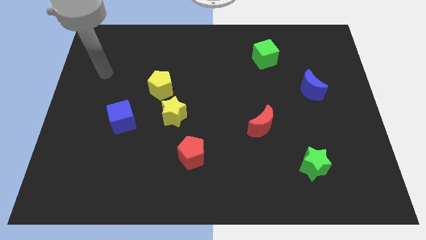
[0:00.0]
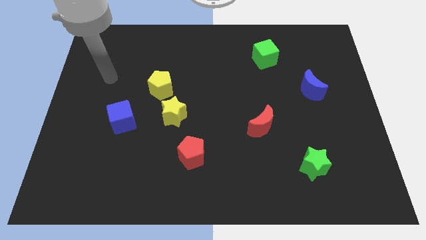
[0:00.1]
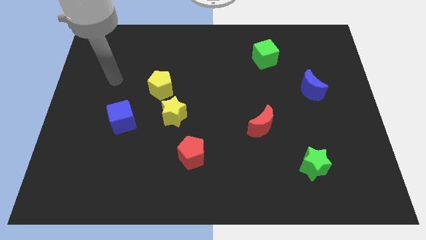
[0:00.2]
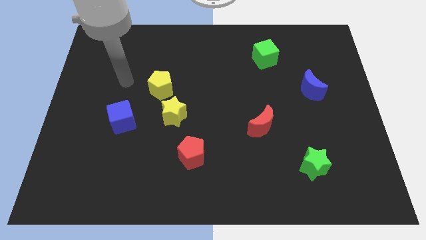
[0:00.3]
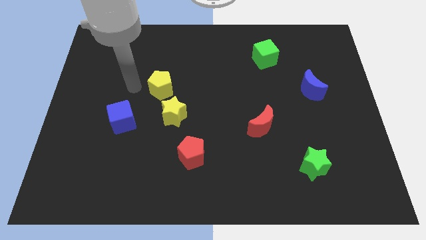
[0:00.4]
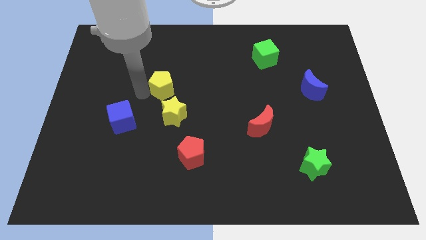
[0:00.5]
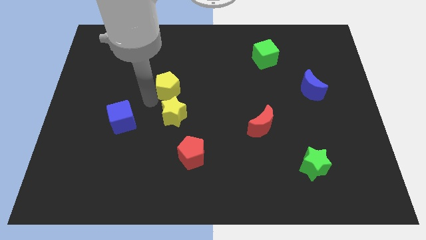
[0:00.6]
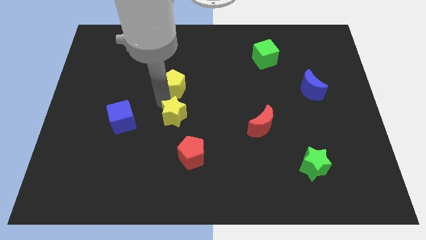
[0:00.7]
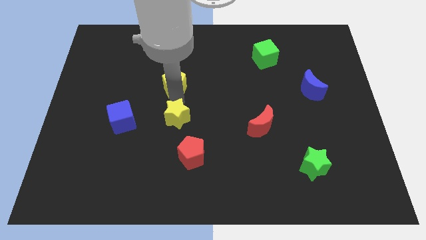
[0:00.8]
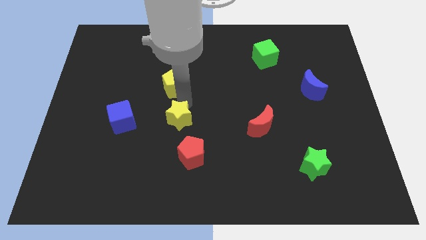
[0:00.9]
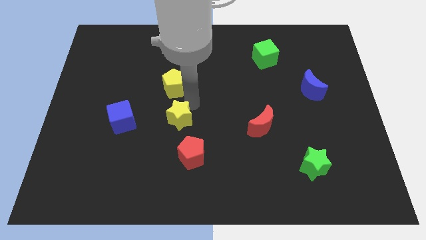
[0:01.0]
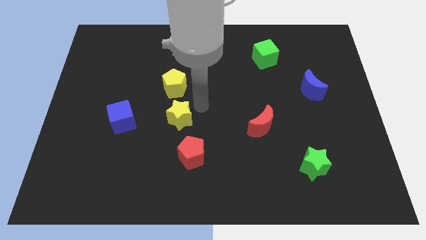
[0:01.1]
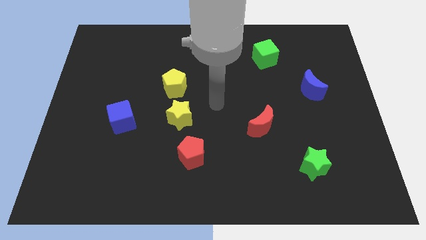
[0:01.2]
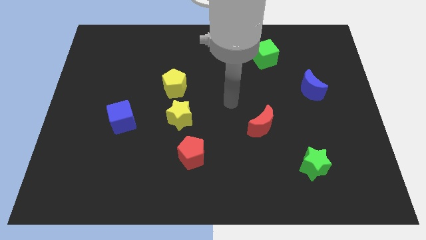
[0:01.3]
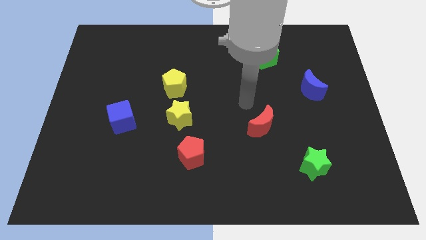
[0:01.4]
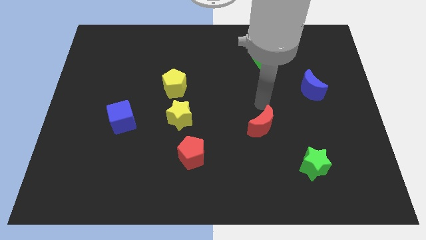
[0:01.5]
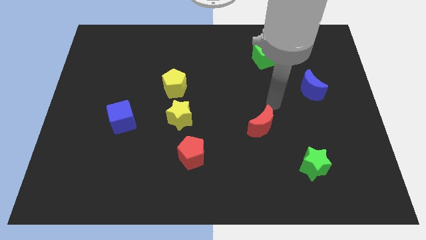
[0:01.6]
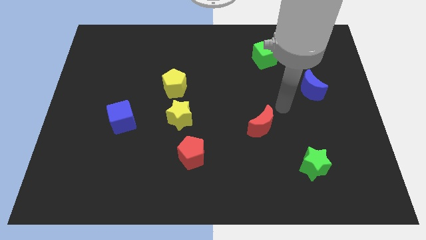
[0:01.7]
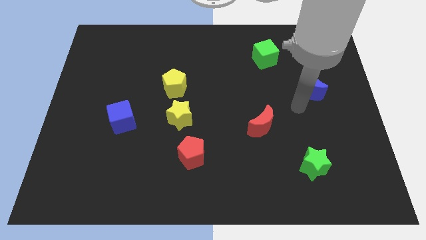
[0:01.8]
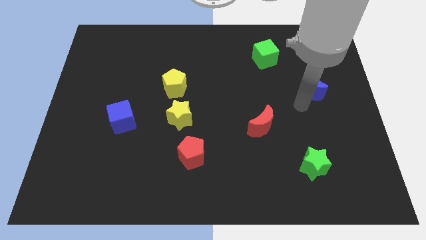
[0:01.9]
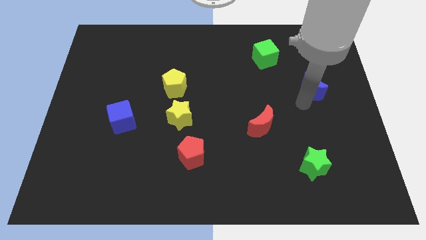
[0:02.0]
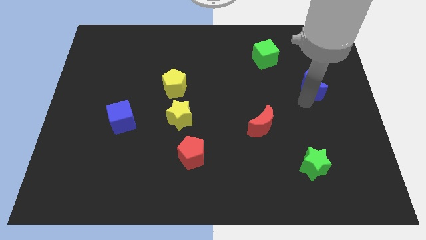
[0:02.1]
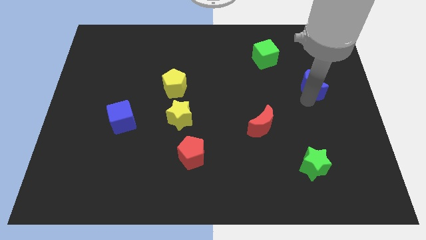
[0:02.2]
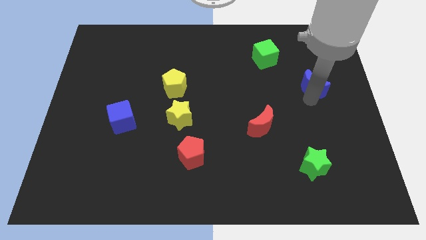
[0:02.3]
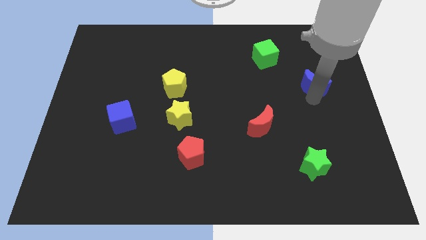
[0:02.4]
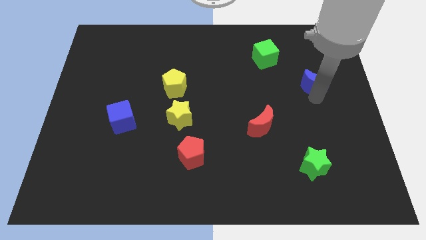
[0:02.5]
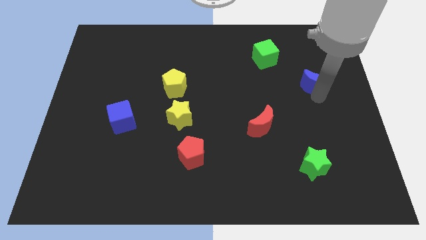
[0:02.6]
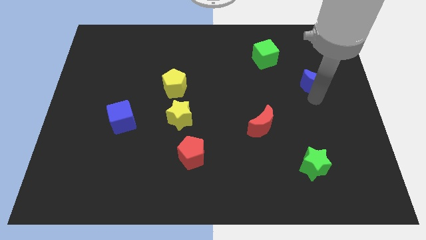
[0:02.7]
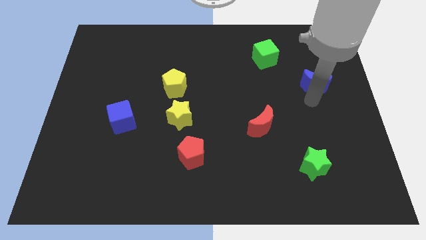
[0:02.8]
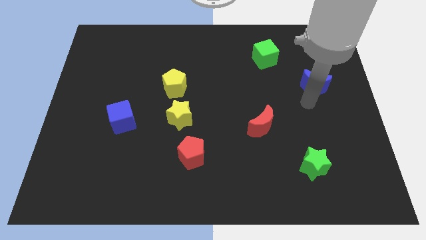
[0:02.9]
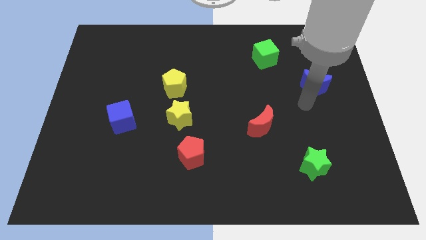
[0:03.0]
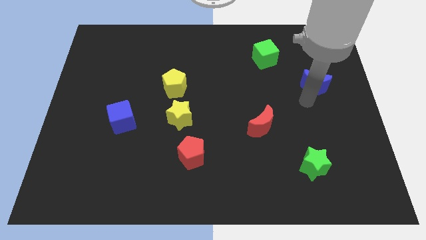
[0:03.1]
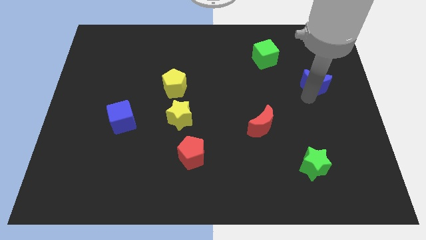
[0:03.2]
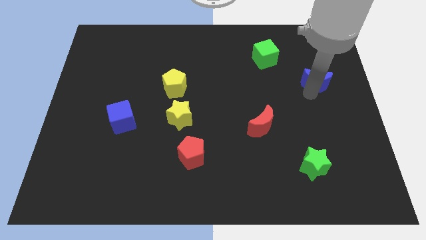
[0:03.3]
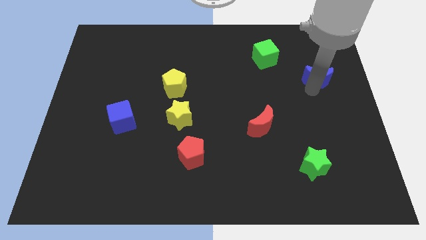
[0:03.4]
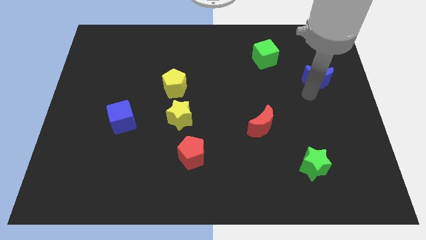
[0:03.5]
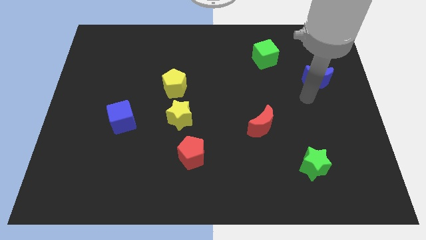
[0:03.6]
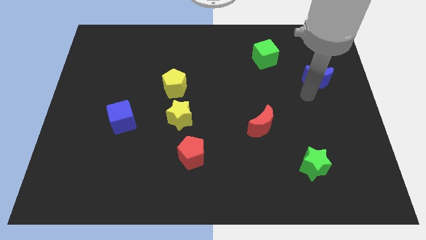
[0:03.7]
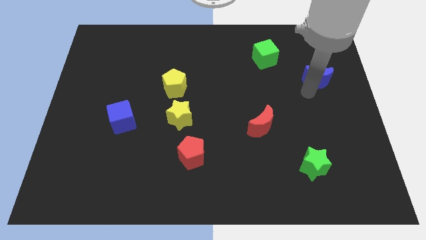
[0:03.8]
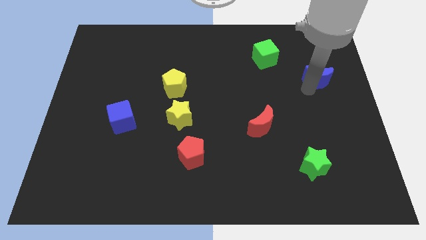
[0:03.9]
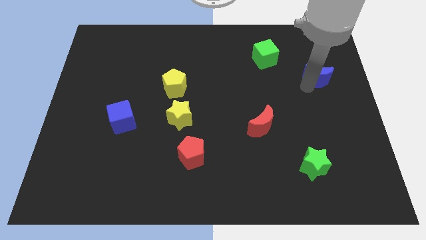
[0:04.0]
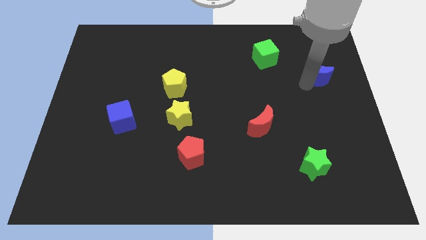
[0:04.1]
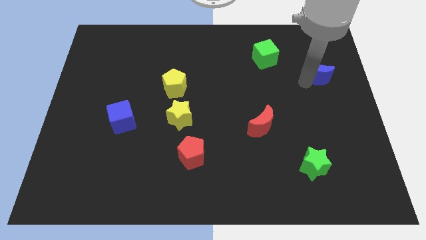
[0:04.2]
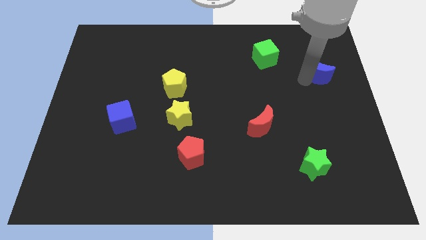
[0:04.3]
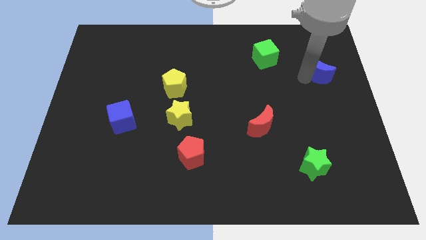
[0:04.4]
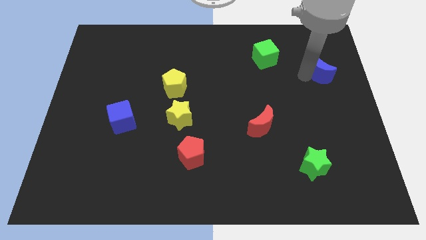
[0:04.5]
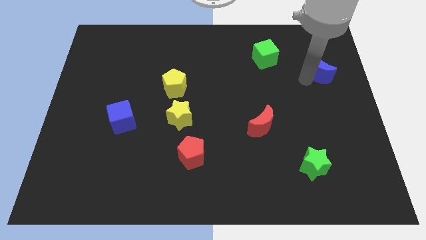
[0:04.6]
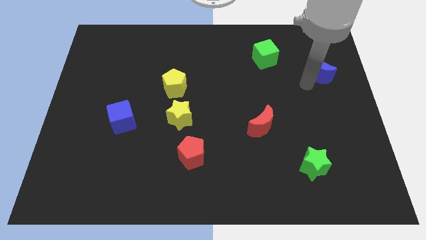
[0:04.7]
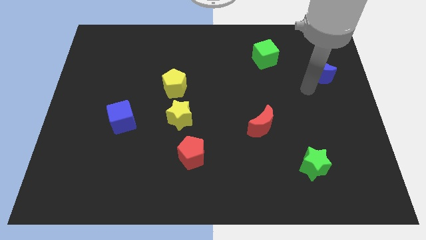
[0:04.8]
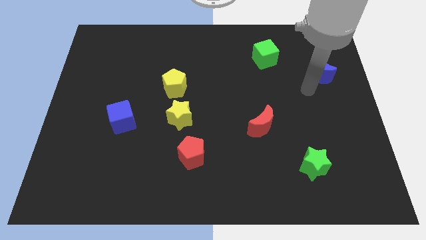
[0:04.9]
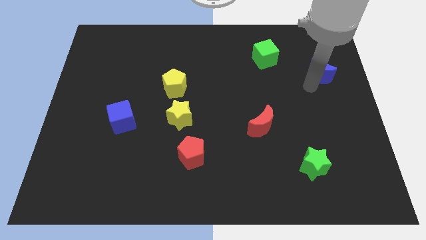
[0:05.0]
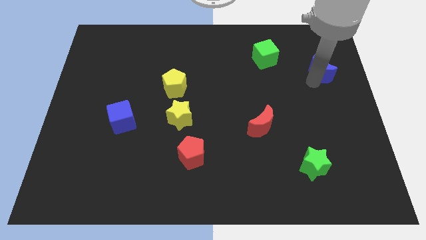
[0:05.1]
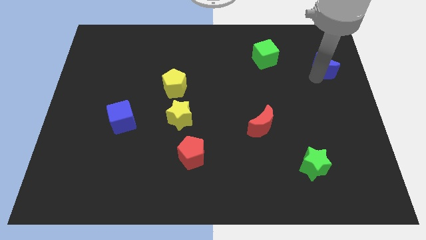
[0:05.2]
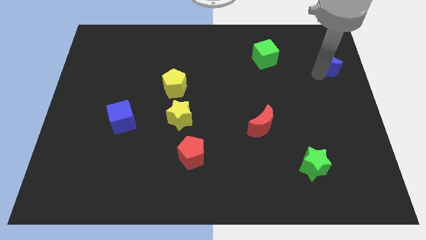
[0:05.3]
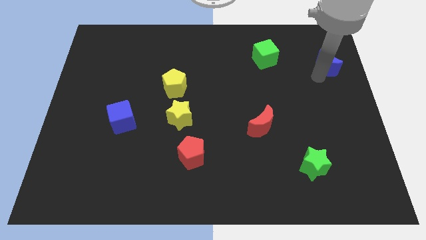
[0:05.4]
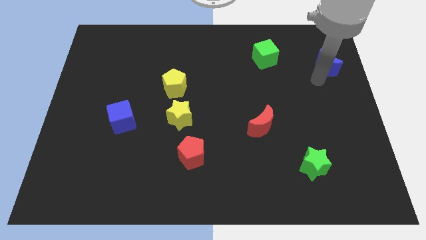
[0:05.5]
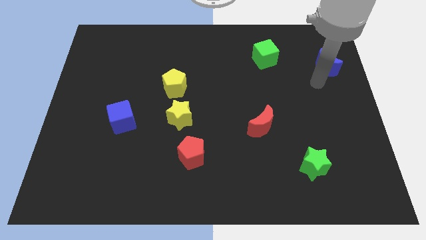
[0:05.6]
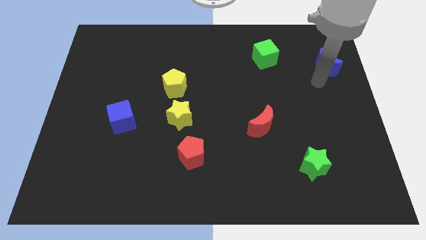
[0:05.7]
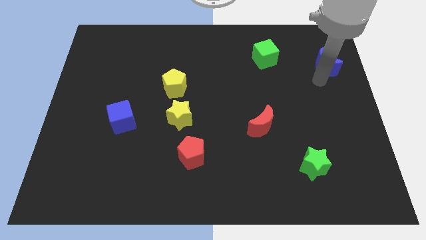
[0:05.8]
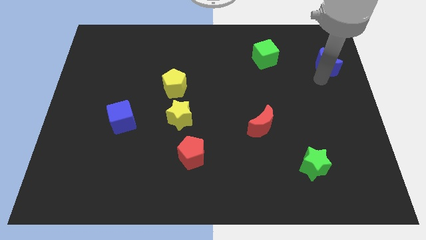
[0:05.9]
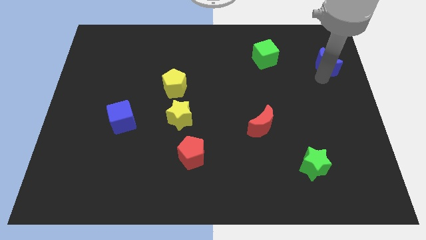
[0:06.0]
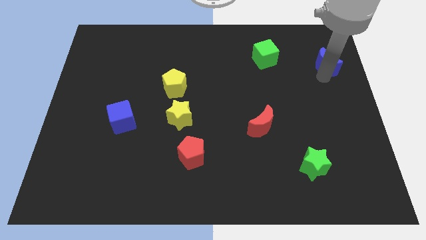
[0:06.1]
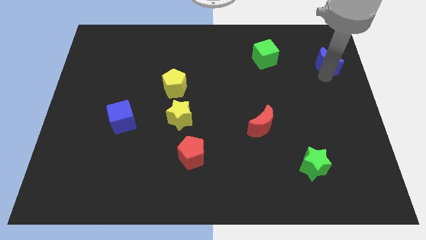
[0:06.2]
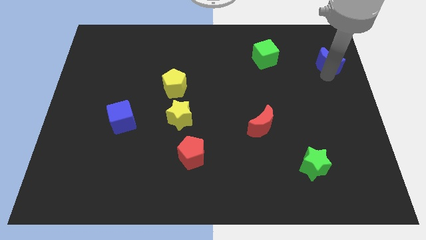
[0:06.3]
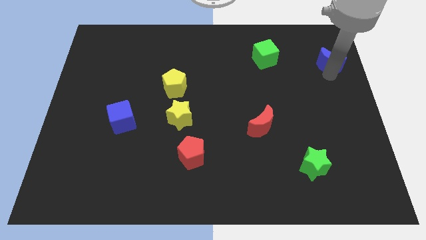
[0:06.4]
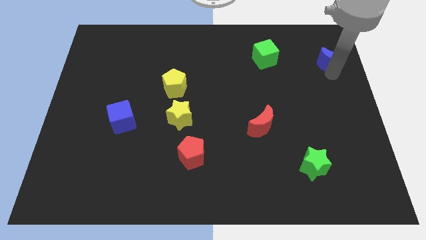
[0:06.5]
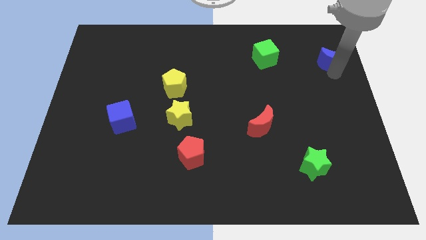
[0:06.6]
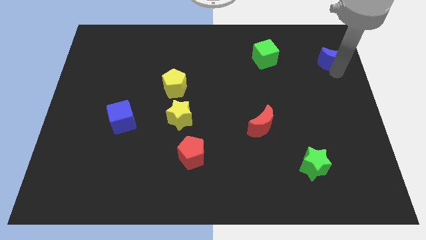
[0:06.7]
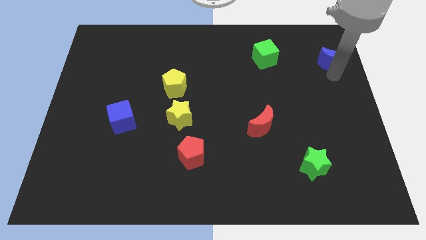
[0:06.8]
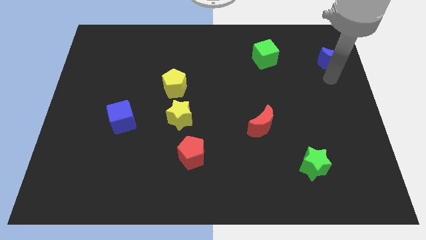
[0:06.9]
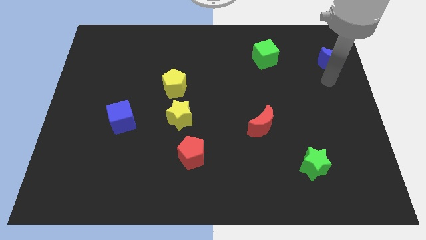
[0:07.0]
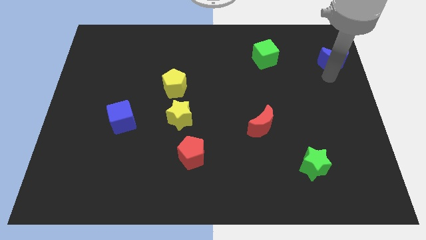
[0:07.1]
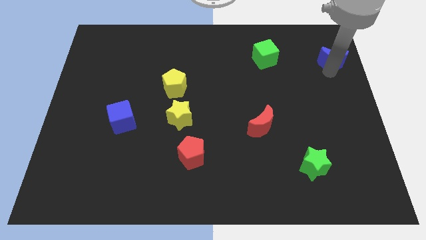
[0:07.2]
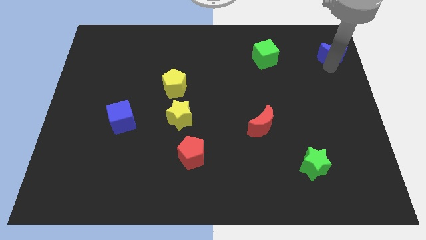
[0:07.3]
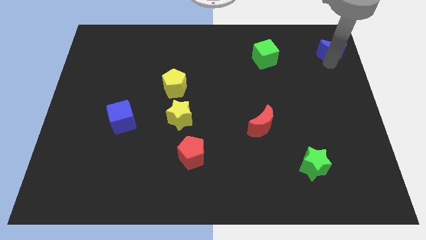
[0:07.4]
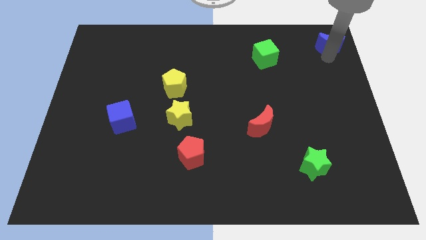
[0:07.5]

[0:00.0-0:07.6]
push the blue moon to the top right corner
